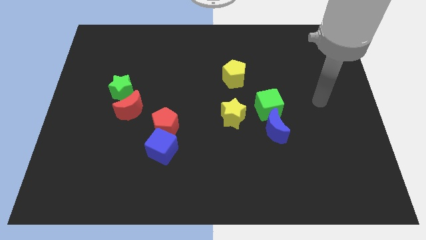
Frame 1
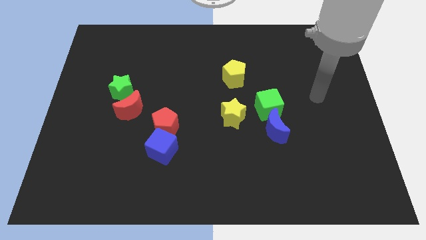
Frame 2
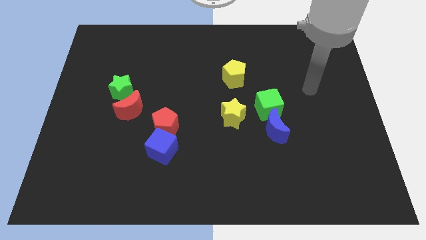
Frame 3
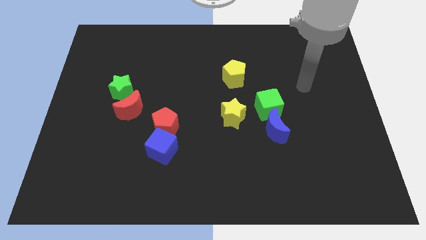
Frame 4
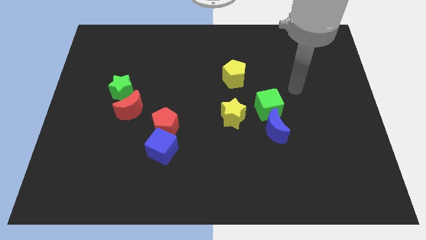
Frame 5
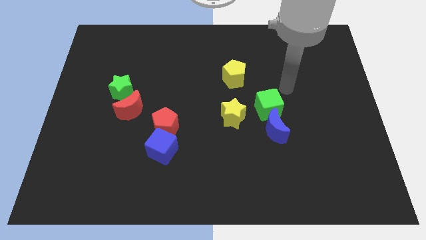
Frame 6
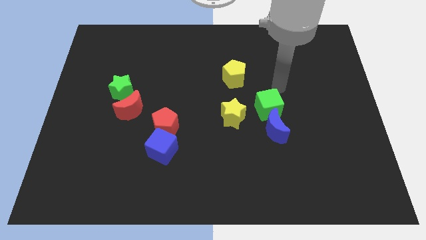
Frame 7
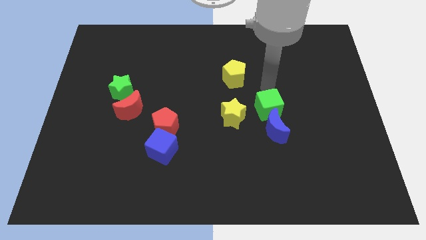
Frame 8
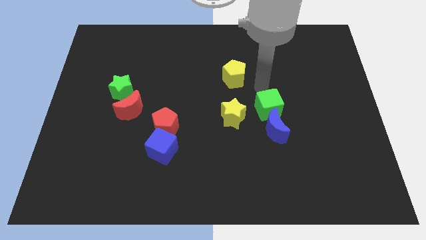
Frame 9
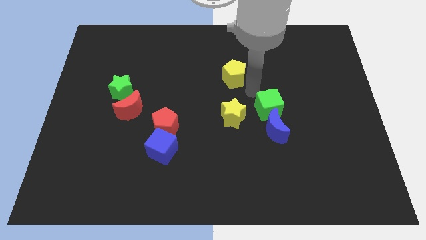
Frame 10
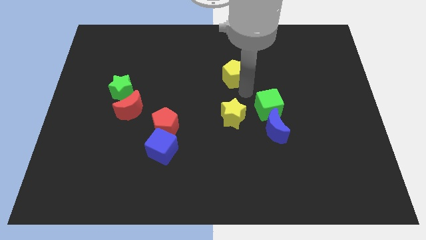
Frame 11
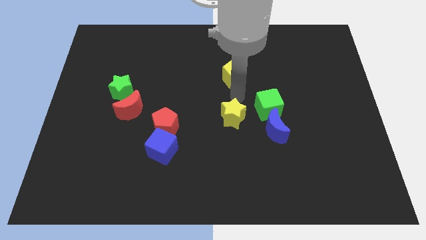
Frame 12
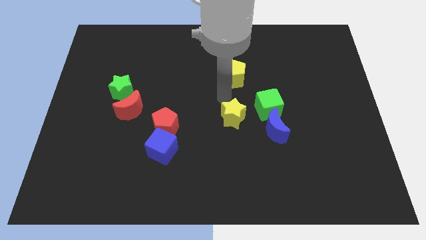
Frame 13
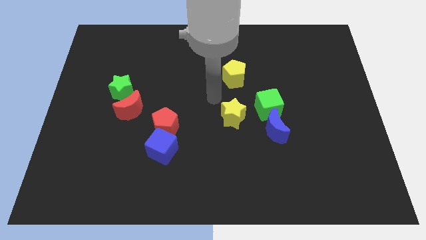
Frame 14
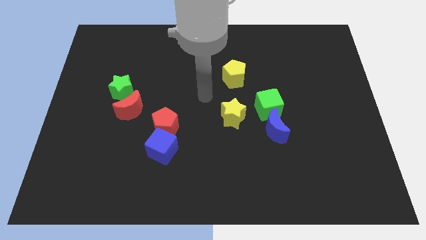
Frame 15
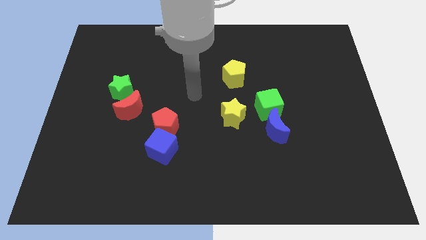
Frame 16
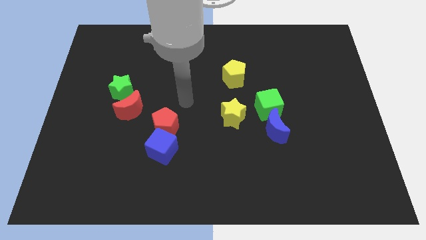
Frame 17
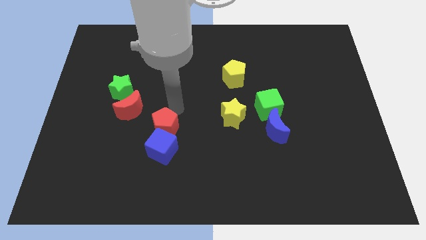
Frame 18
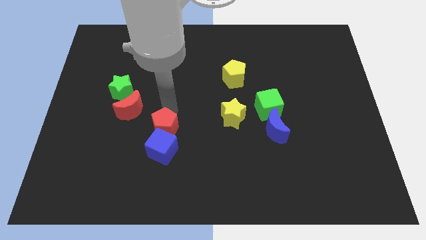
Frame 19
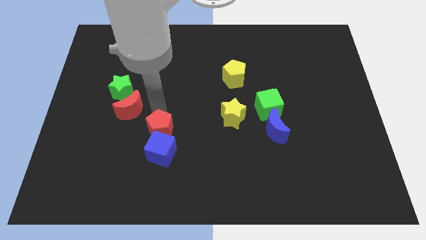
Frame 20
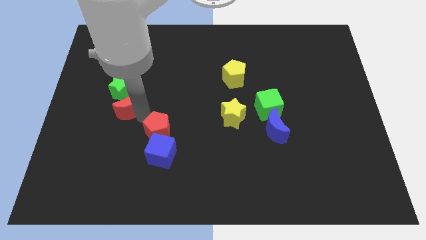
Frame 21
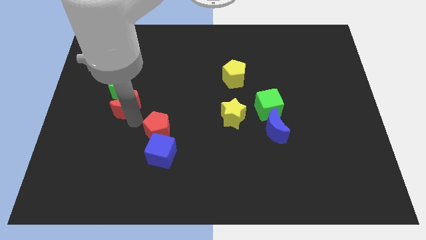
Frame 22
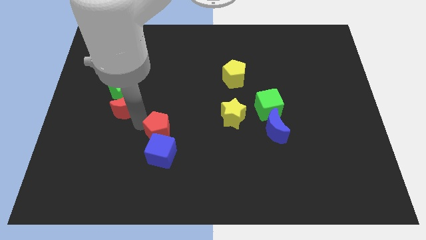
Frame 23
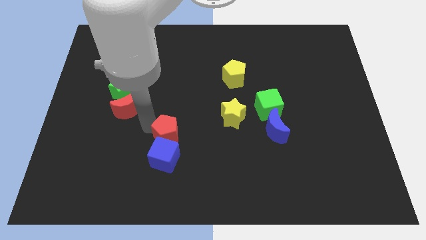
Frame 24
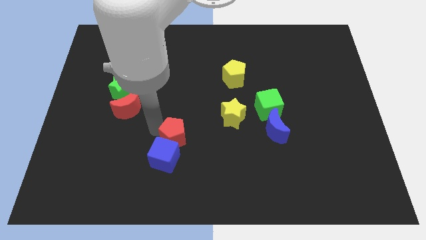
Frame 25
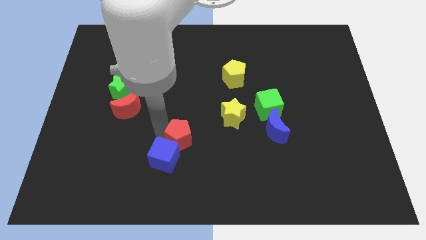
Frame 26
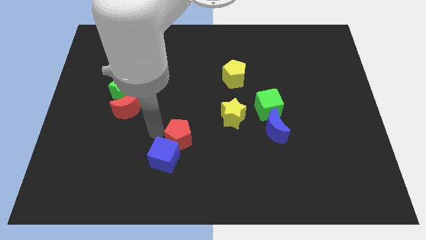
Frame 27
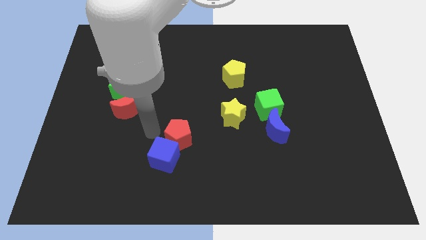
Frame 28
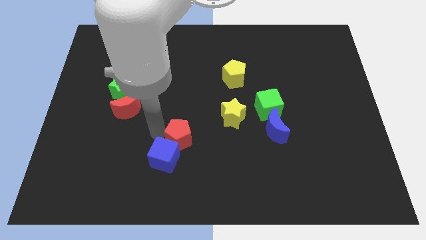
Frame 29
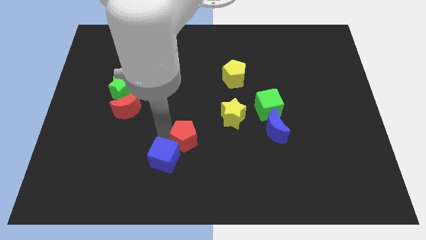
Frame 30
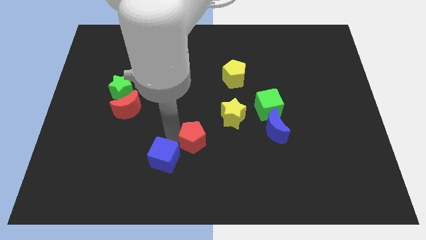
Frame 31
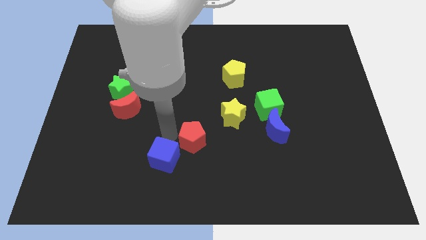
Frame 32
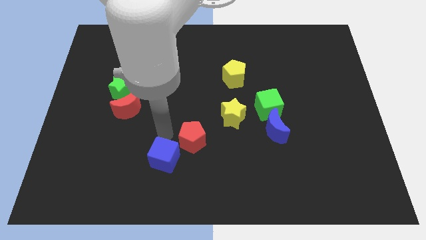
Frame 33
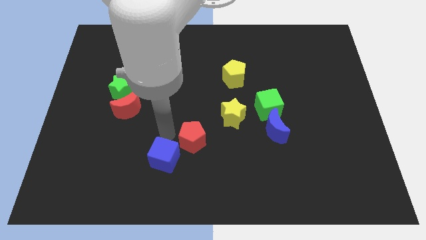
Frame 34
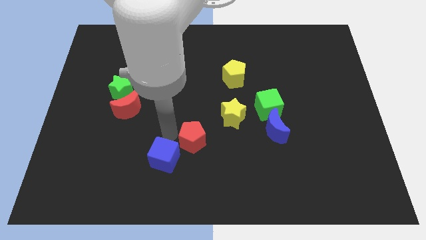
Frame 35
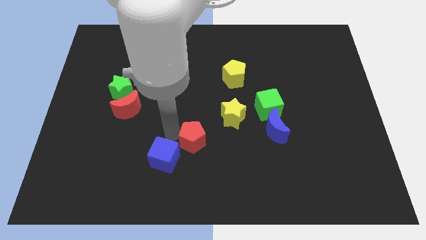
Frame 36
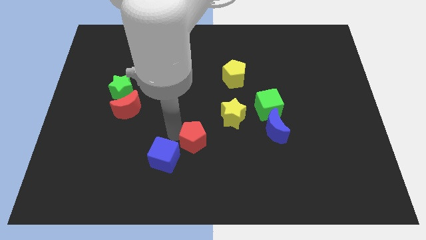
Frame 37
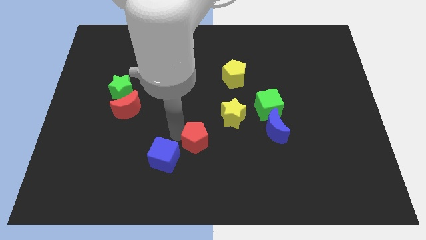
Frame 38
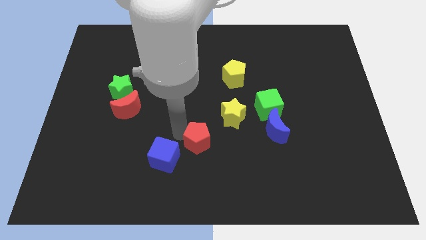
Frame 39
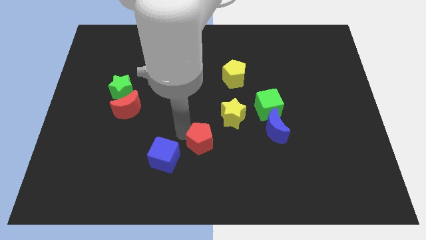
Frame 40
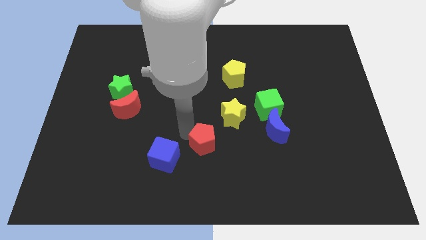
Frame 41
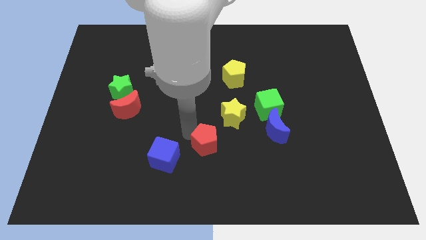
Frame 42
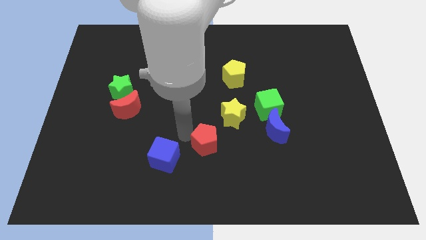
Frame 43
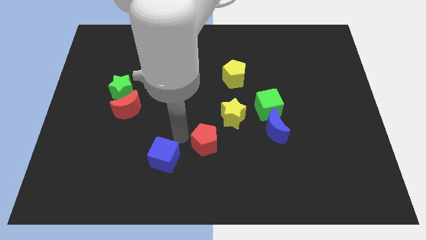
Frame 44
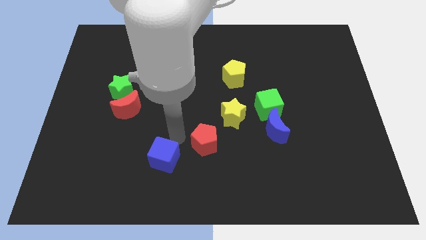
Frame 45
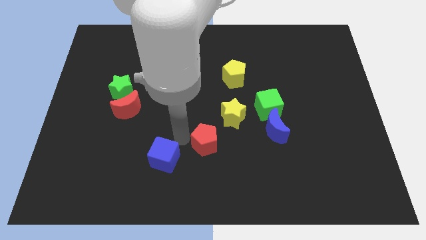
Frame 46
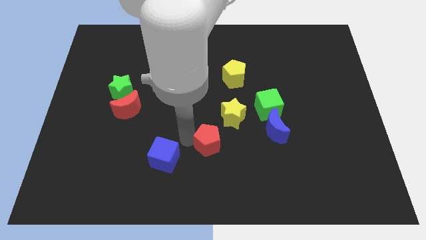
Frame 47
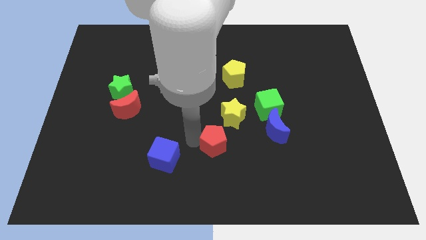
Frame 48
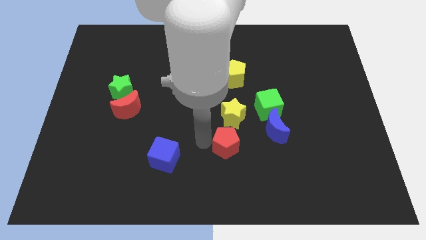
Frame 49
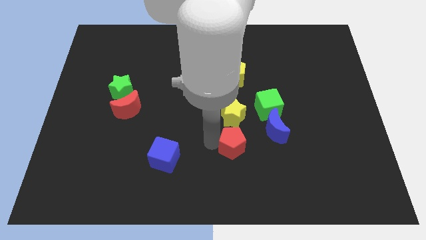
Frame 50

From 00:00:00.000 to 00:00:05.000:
put the red pentagon to the bottom left of the blue moon

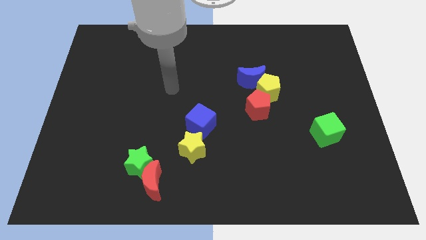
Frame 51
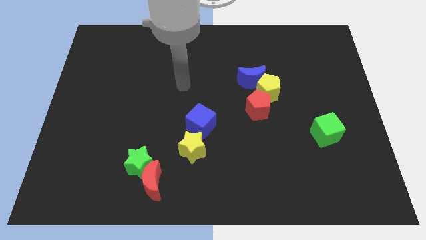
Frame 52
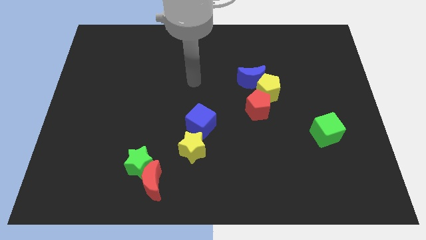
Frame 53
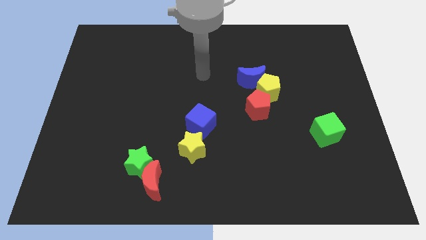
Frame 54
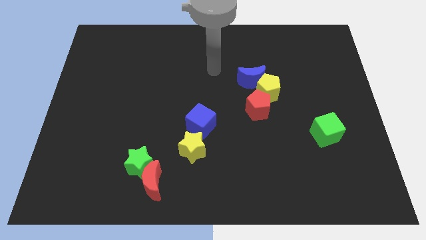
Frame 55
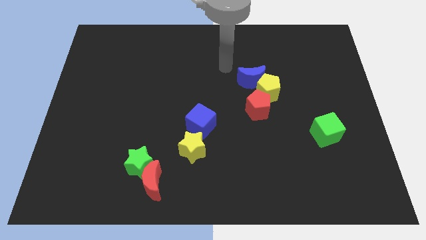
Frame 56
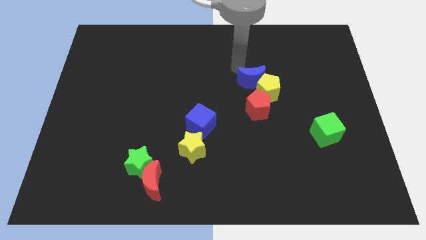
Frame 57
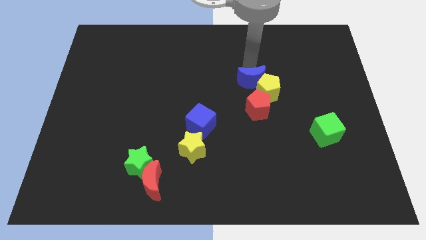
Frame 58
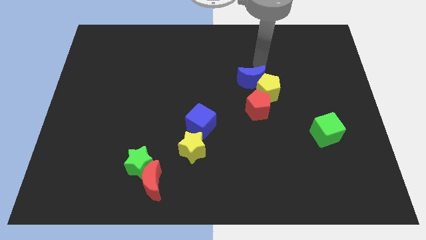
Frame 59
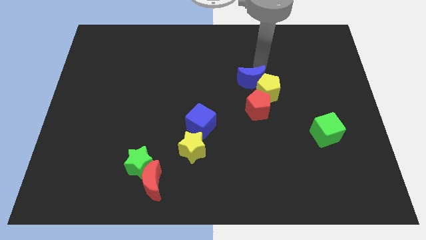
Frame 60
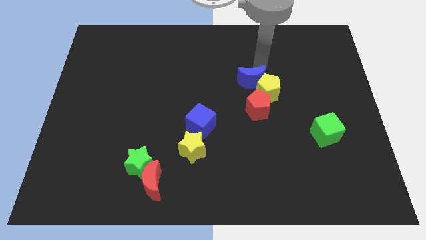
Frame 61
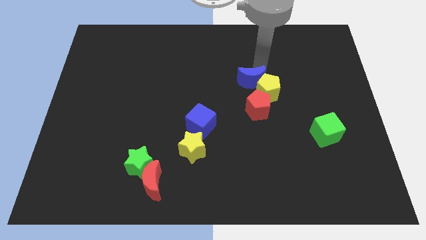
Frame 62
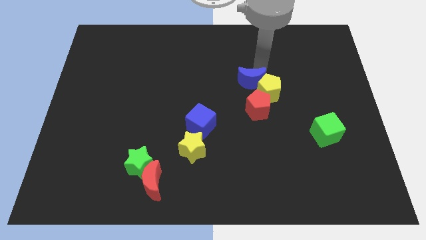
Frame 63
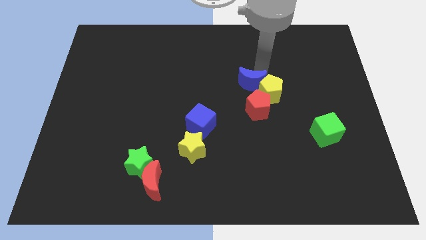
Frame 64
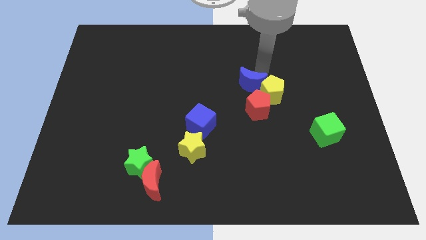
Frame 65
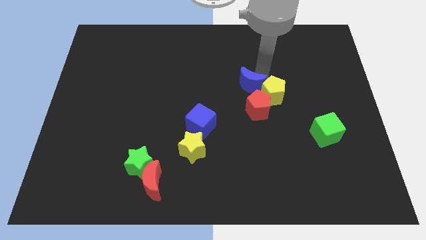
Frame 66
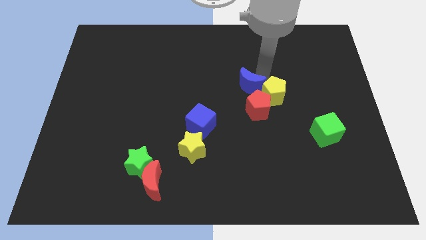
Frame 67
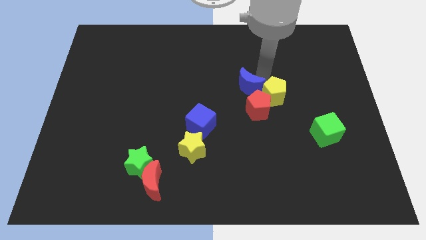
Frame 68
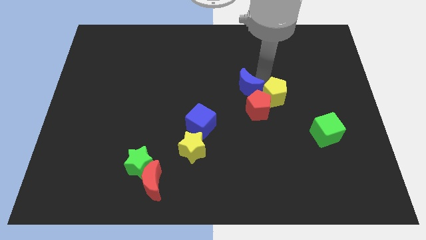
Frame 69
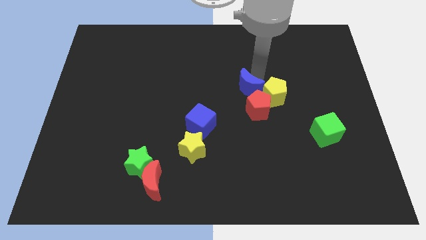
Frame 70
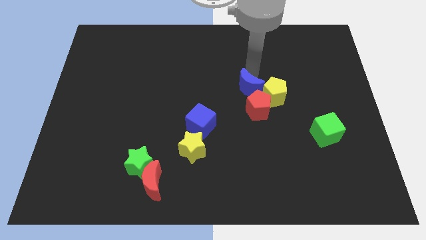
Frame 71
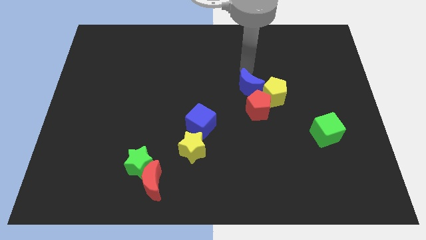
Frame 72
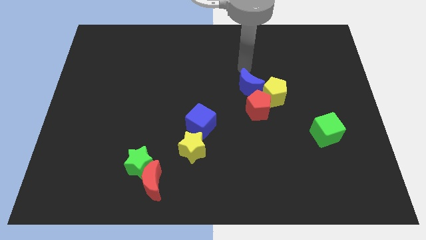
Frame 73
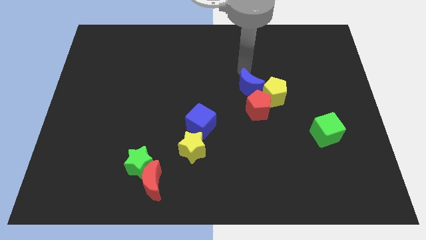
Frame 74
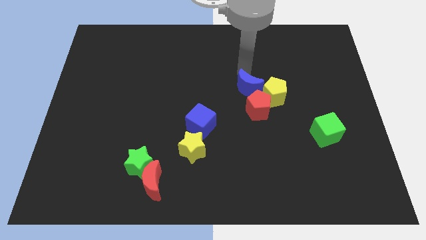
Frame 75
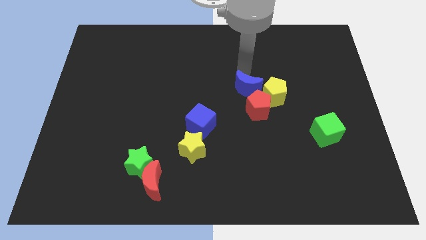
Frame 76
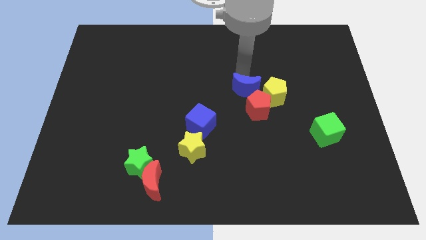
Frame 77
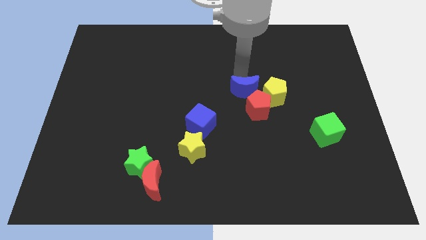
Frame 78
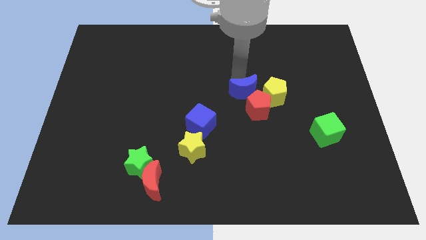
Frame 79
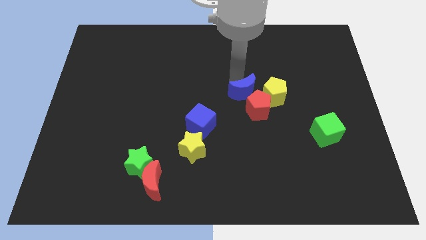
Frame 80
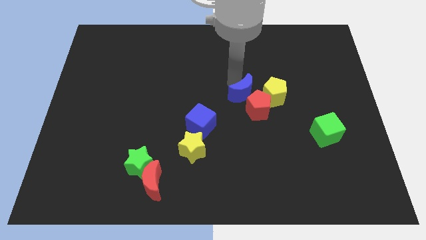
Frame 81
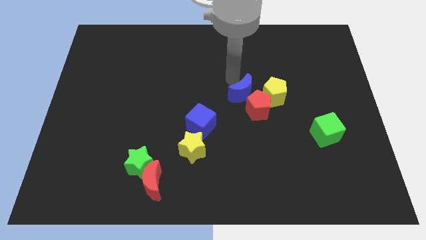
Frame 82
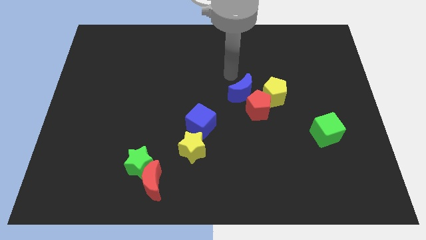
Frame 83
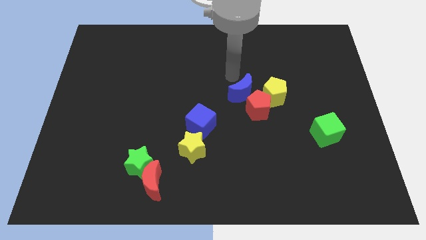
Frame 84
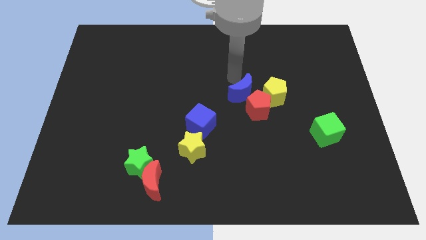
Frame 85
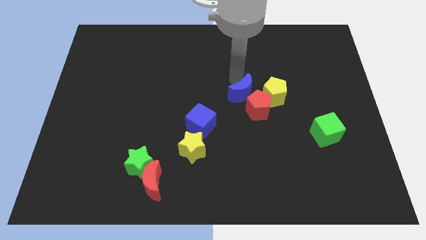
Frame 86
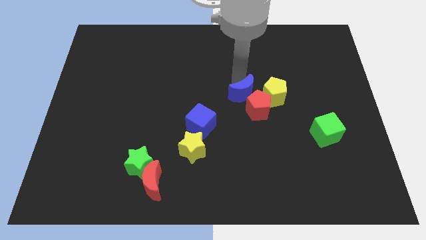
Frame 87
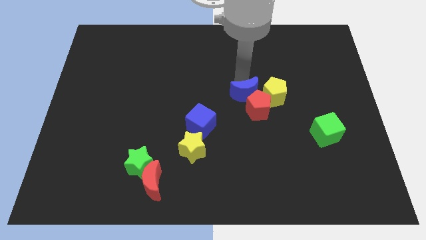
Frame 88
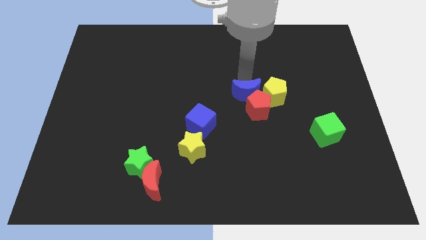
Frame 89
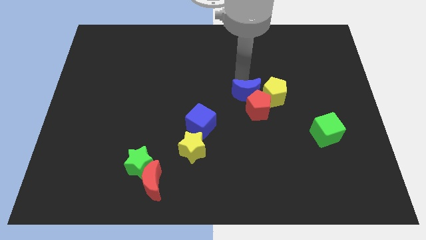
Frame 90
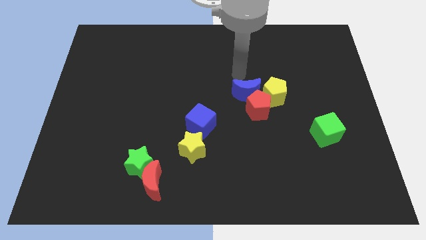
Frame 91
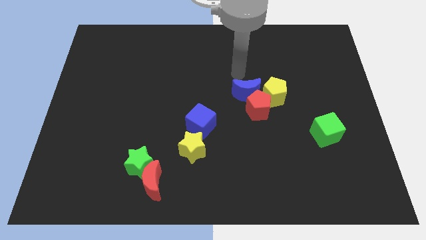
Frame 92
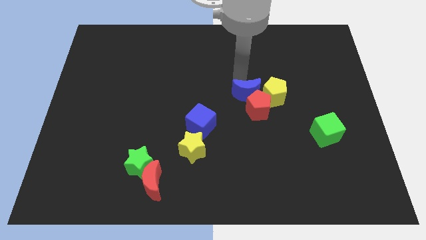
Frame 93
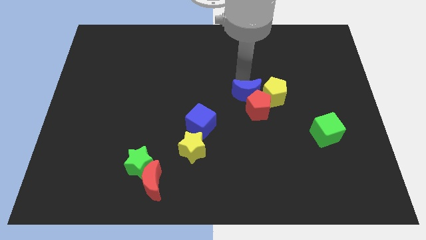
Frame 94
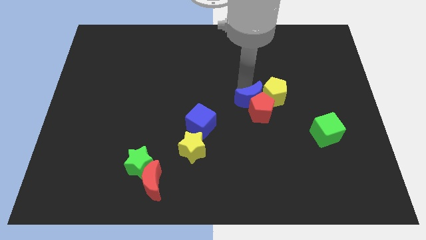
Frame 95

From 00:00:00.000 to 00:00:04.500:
slide the blue moon diagonally down and to the left of the yellow pentagon
